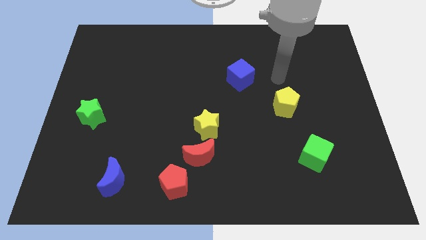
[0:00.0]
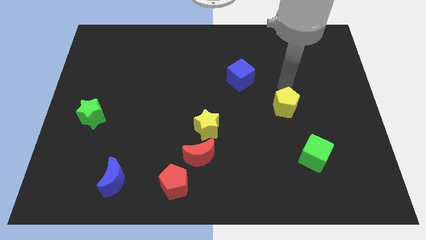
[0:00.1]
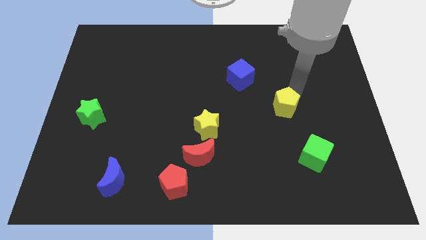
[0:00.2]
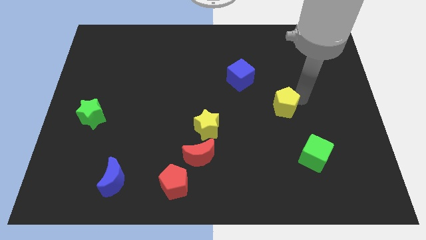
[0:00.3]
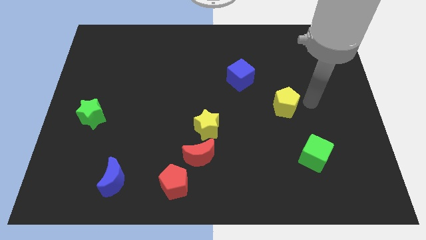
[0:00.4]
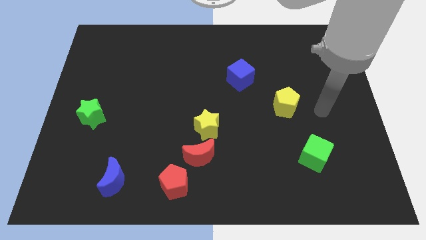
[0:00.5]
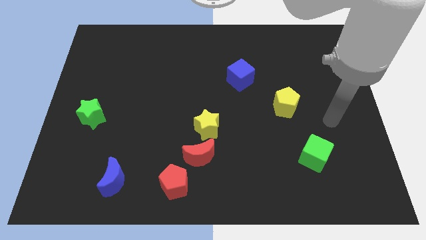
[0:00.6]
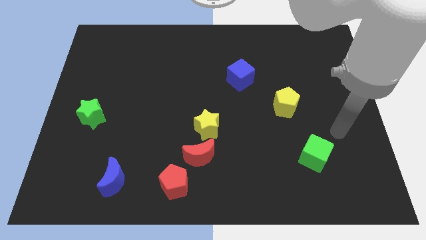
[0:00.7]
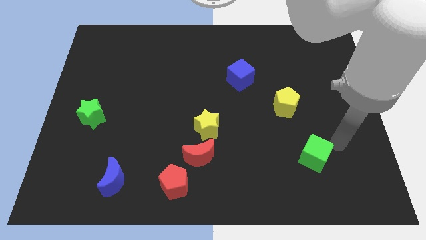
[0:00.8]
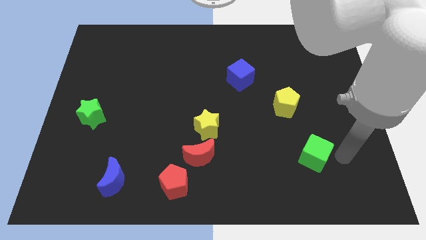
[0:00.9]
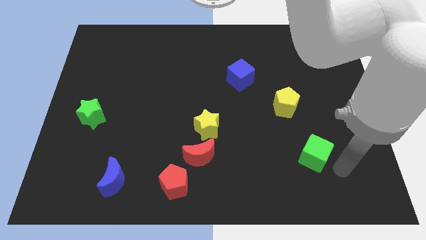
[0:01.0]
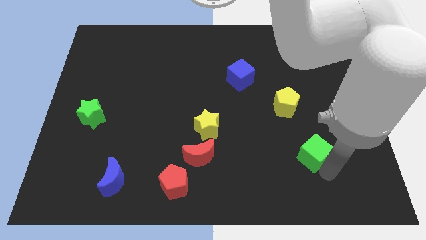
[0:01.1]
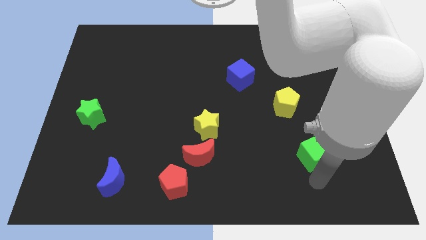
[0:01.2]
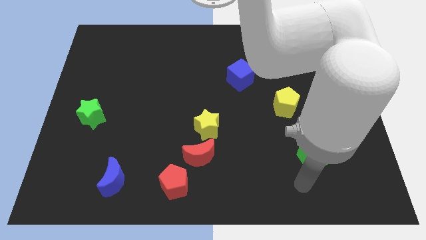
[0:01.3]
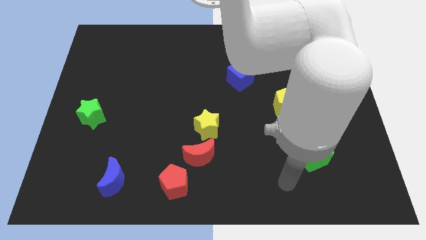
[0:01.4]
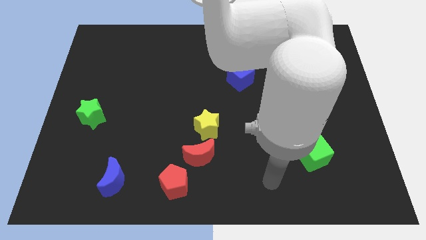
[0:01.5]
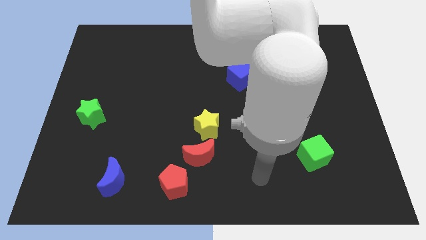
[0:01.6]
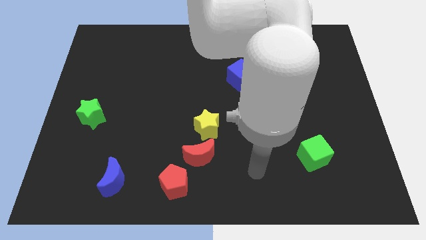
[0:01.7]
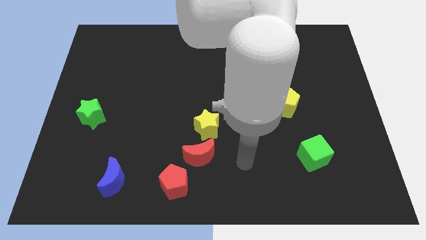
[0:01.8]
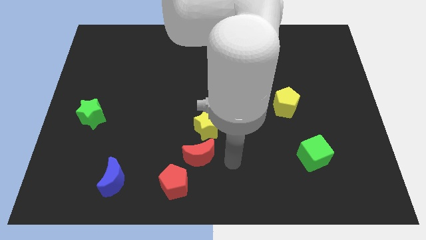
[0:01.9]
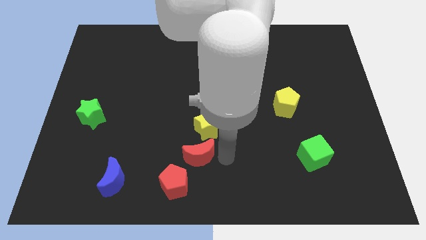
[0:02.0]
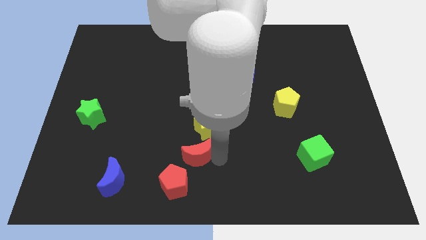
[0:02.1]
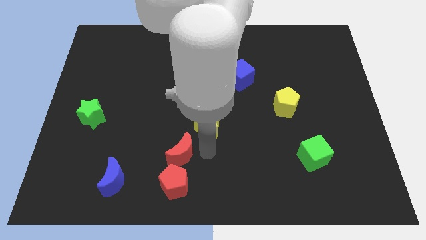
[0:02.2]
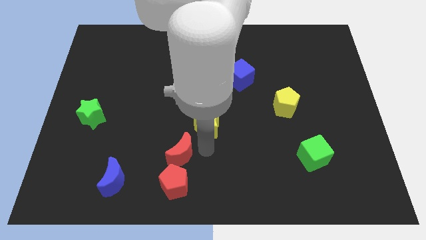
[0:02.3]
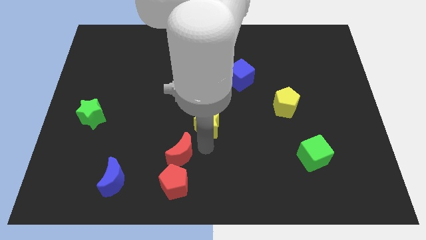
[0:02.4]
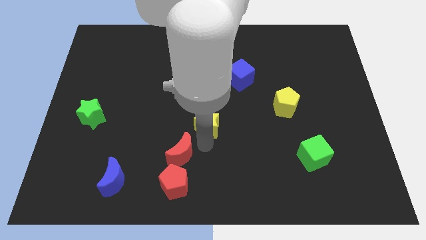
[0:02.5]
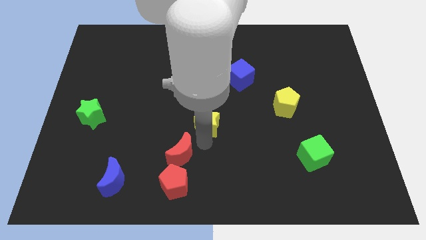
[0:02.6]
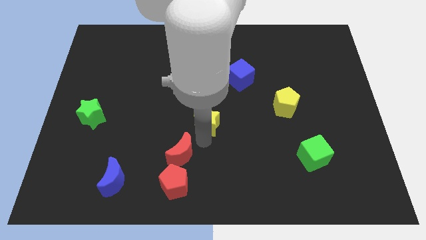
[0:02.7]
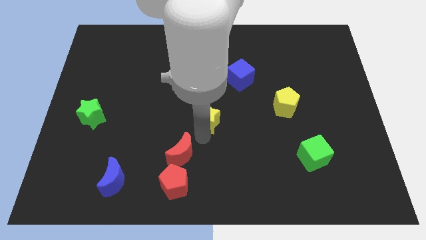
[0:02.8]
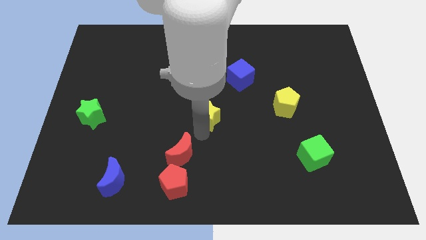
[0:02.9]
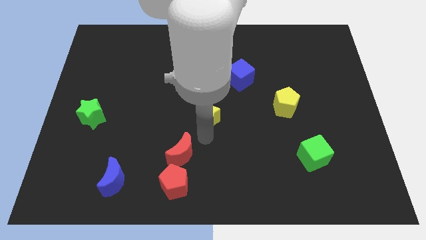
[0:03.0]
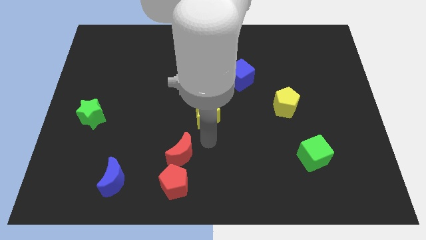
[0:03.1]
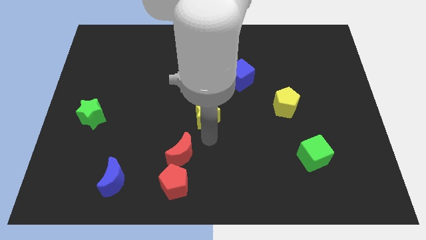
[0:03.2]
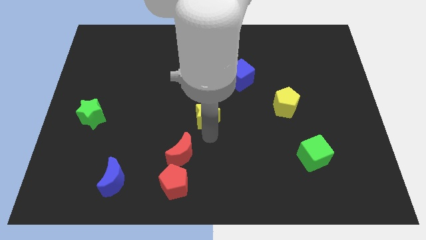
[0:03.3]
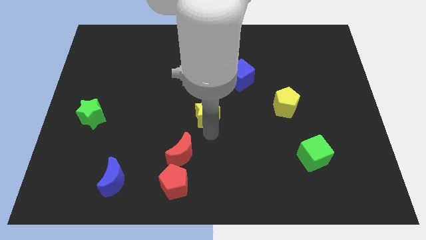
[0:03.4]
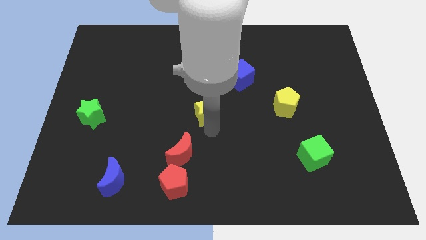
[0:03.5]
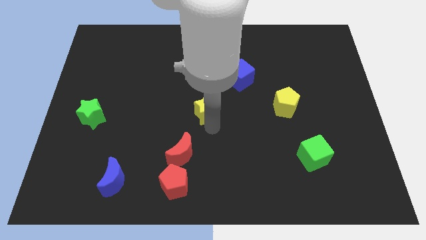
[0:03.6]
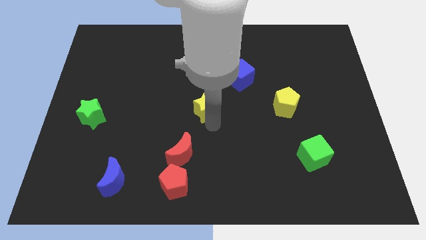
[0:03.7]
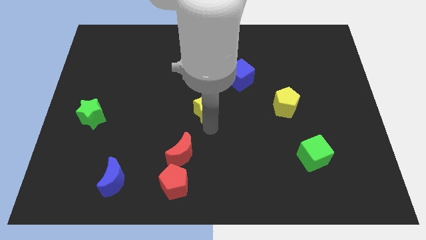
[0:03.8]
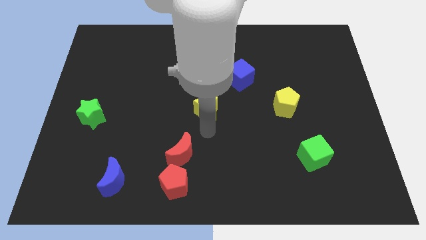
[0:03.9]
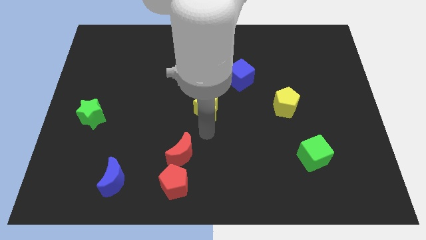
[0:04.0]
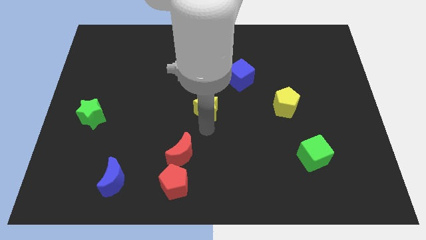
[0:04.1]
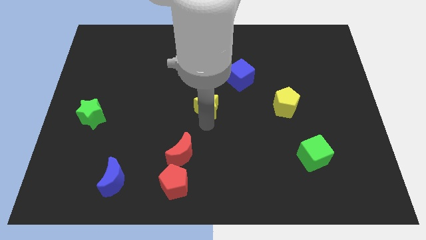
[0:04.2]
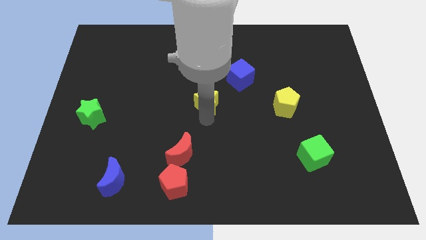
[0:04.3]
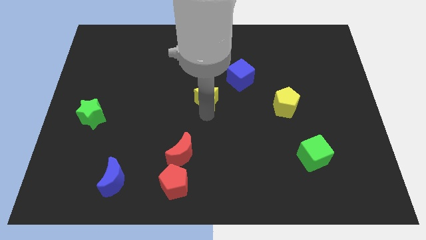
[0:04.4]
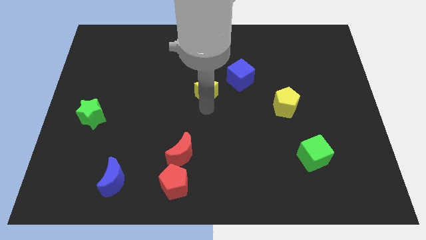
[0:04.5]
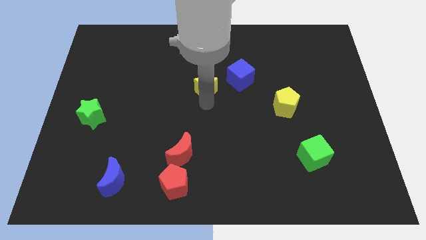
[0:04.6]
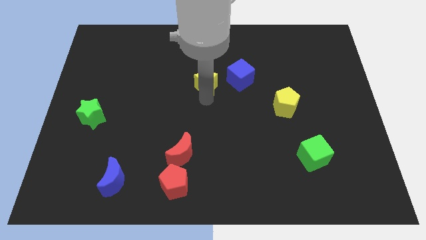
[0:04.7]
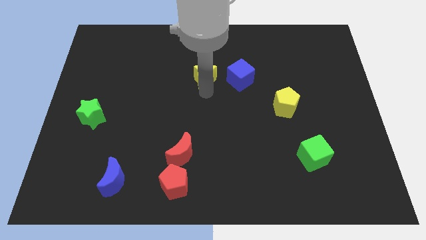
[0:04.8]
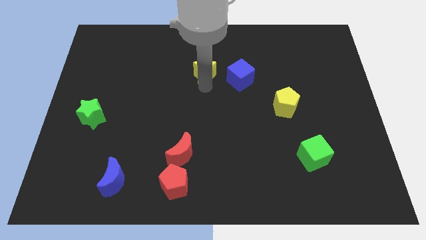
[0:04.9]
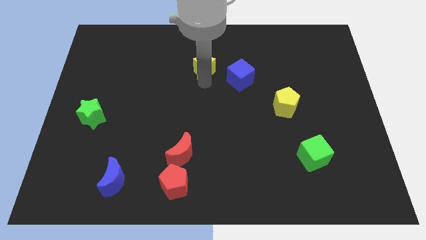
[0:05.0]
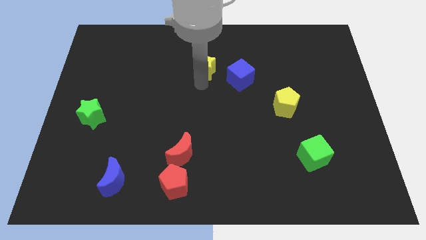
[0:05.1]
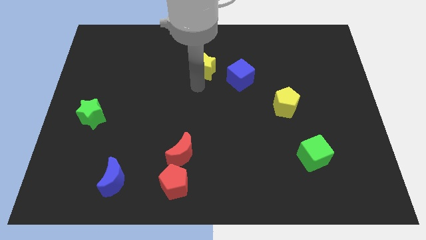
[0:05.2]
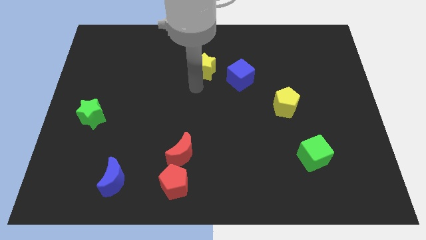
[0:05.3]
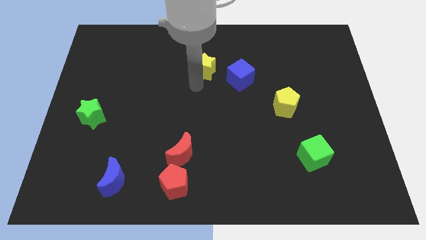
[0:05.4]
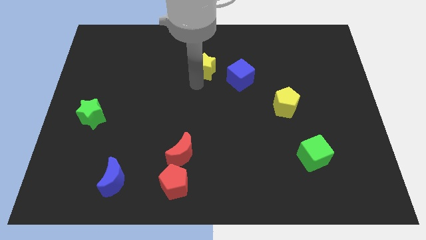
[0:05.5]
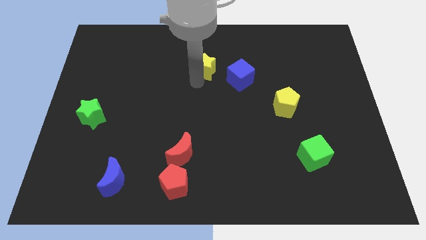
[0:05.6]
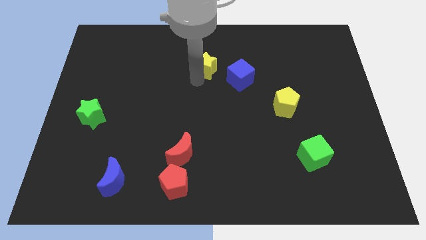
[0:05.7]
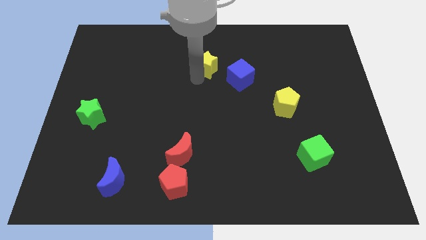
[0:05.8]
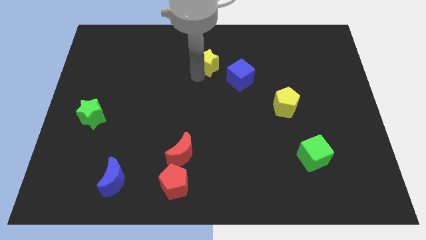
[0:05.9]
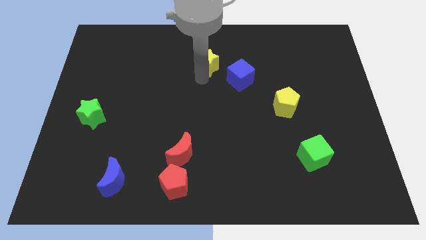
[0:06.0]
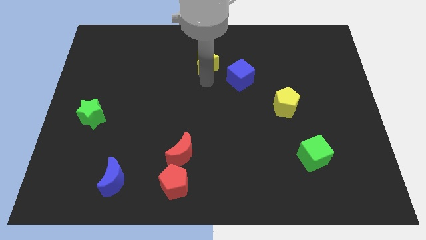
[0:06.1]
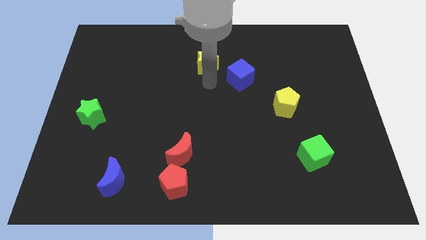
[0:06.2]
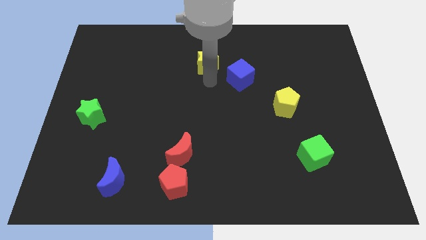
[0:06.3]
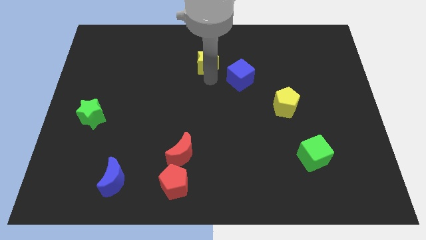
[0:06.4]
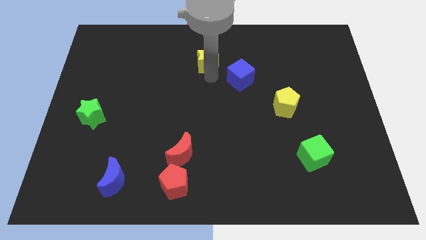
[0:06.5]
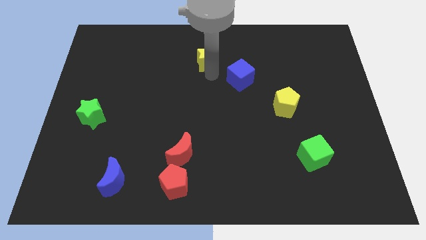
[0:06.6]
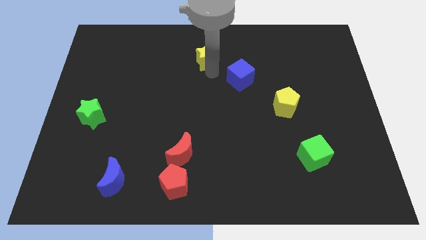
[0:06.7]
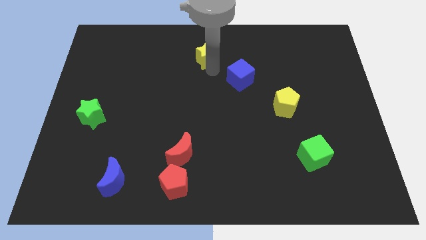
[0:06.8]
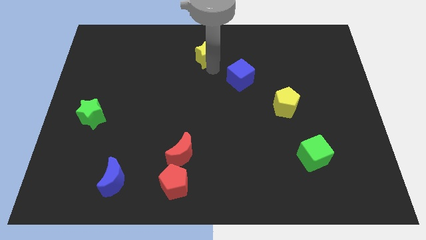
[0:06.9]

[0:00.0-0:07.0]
put the yellow star to the towards your base
